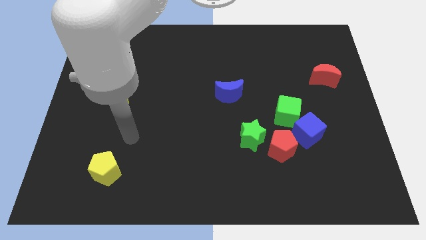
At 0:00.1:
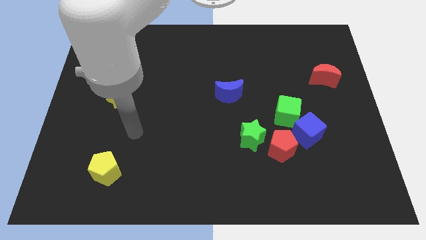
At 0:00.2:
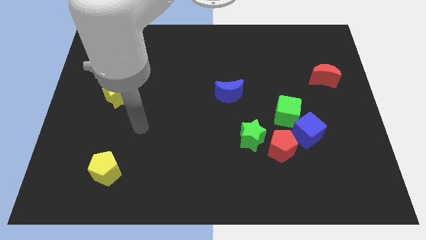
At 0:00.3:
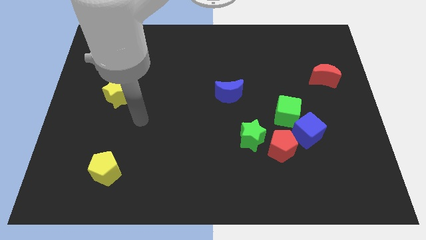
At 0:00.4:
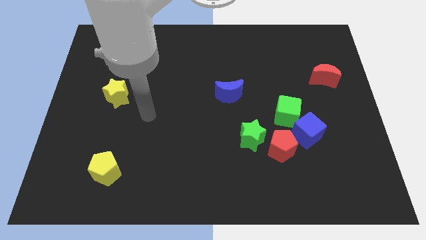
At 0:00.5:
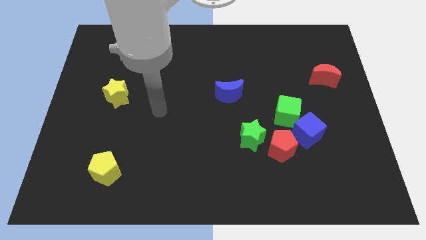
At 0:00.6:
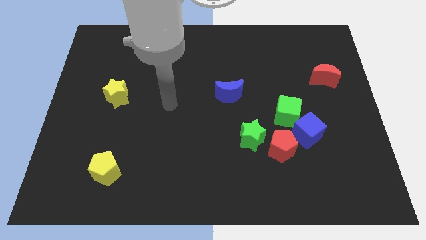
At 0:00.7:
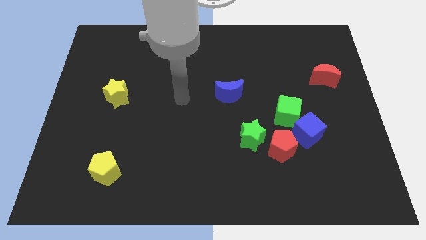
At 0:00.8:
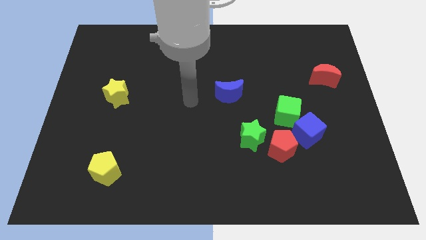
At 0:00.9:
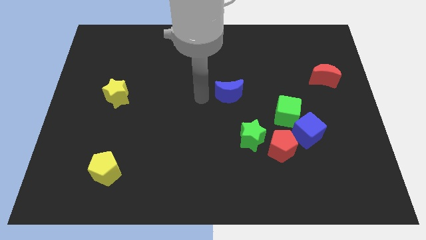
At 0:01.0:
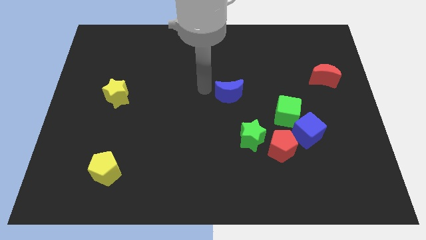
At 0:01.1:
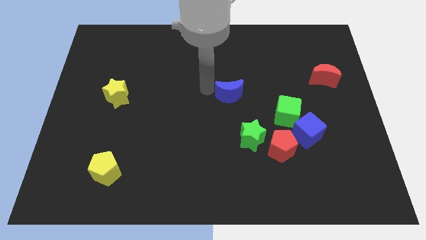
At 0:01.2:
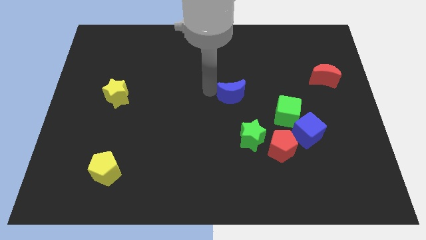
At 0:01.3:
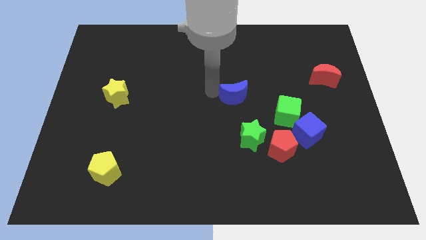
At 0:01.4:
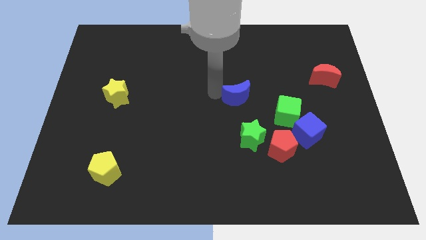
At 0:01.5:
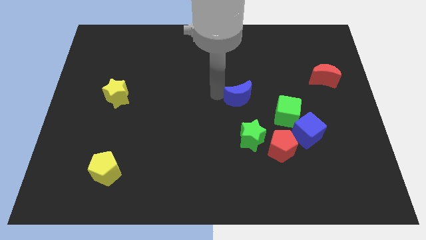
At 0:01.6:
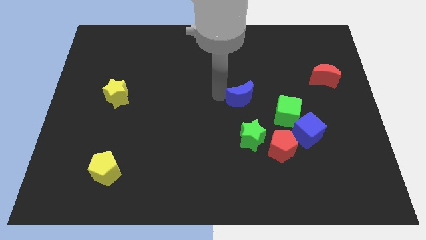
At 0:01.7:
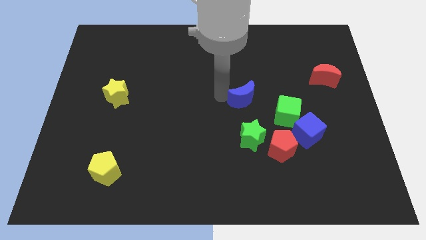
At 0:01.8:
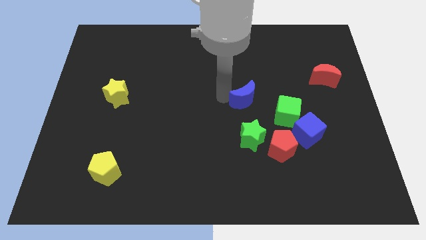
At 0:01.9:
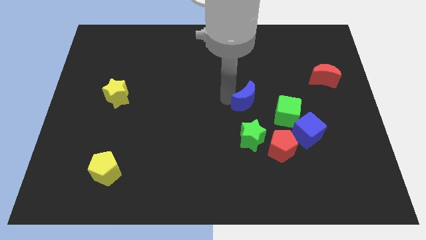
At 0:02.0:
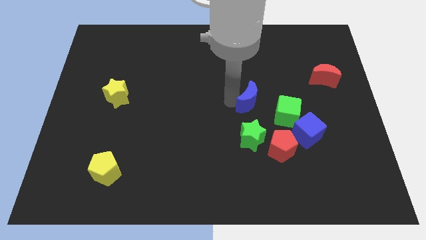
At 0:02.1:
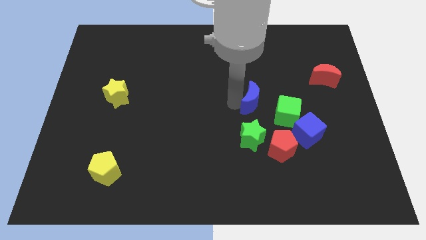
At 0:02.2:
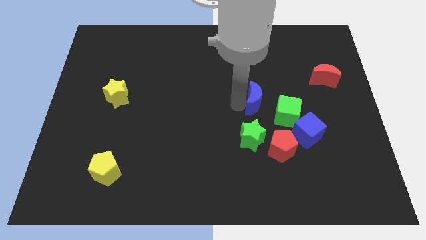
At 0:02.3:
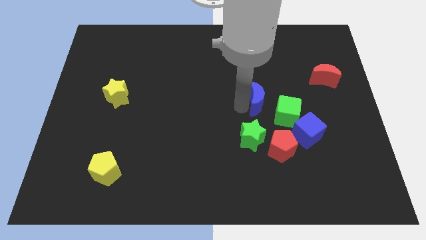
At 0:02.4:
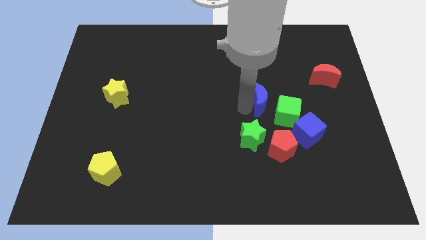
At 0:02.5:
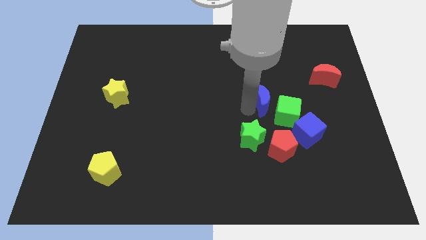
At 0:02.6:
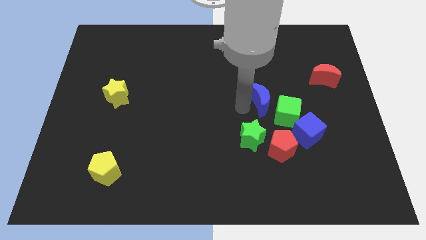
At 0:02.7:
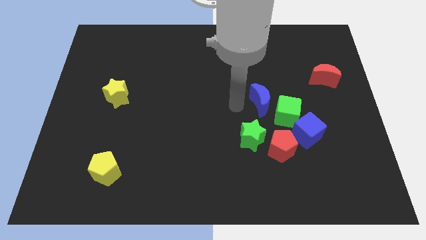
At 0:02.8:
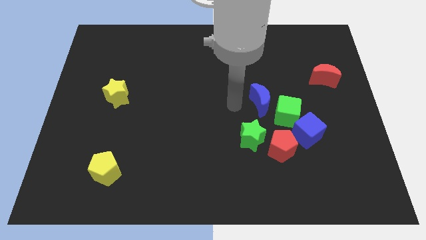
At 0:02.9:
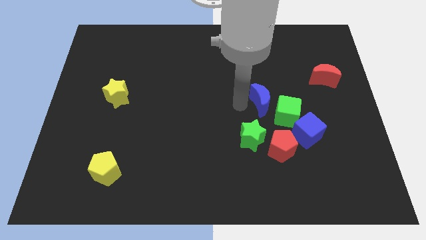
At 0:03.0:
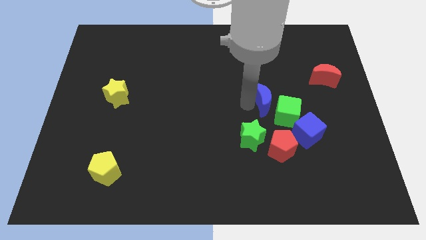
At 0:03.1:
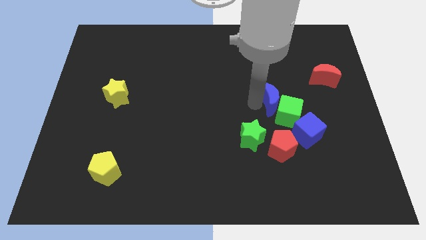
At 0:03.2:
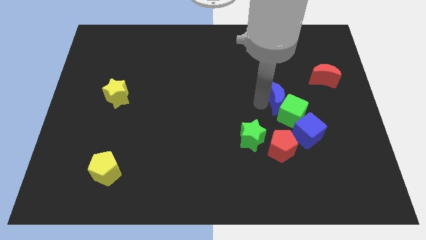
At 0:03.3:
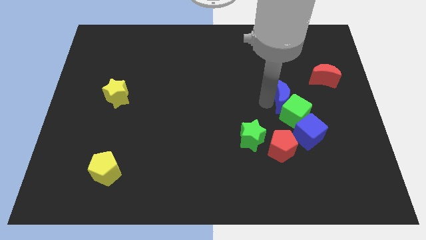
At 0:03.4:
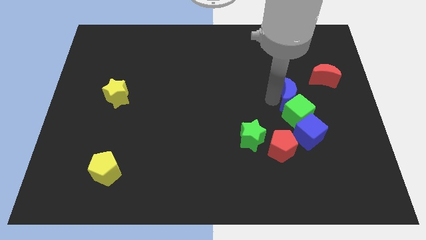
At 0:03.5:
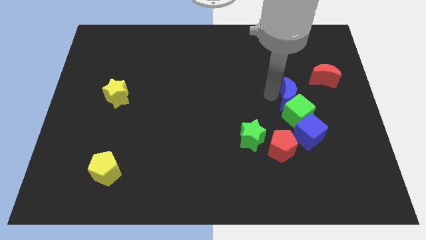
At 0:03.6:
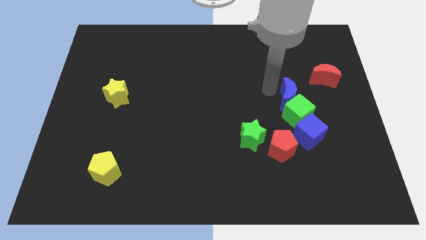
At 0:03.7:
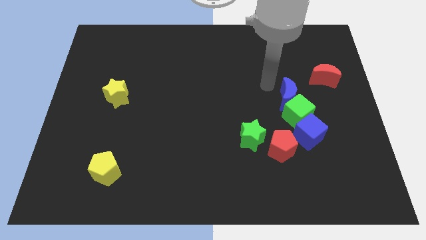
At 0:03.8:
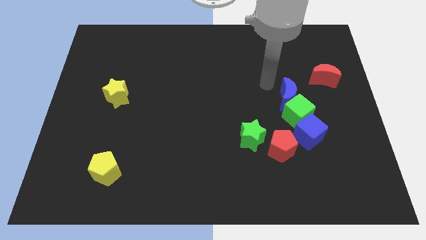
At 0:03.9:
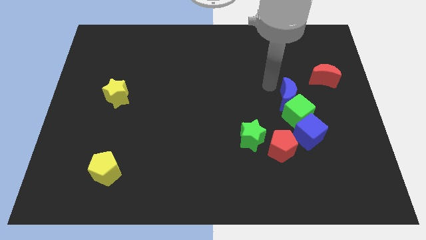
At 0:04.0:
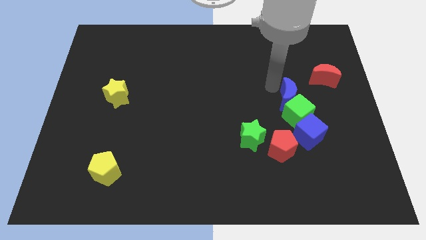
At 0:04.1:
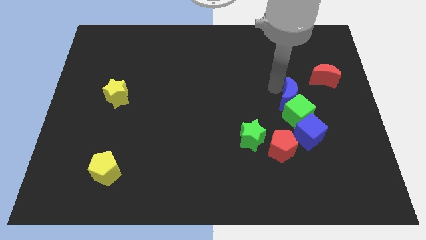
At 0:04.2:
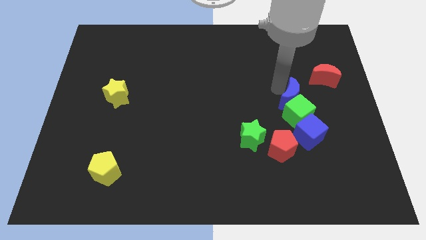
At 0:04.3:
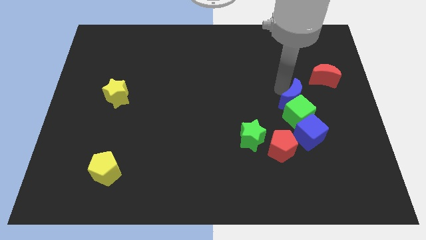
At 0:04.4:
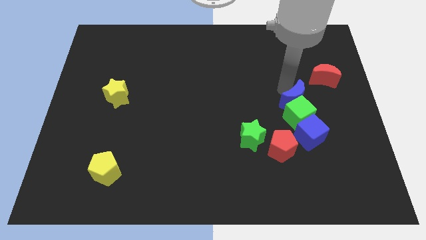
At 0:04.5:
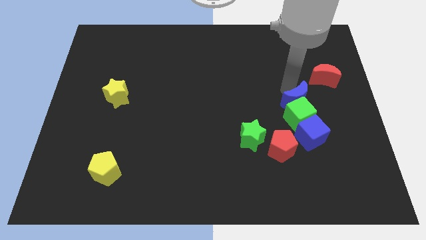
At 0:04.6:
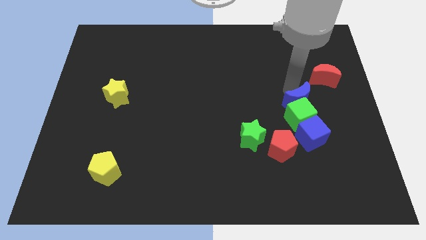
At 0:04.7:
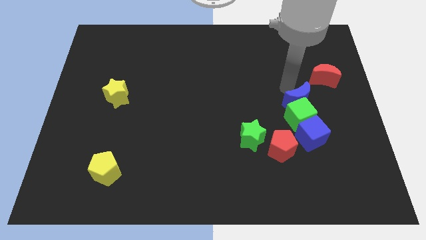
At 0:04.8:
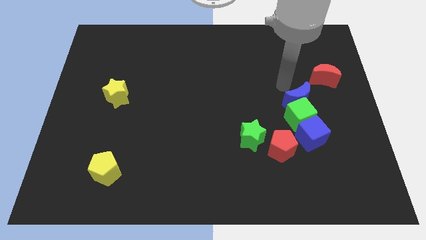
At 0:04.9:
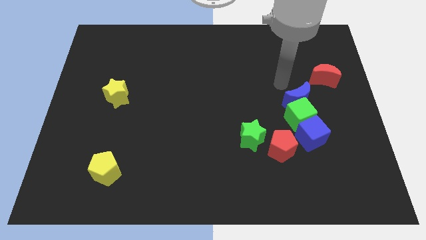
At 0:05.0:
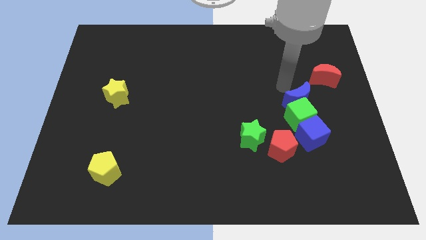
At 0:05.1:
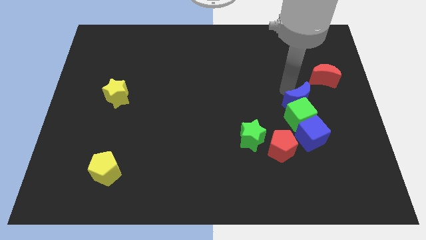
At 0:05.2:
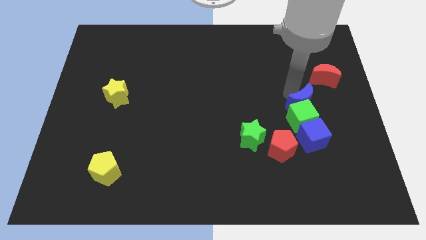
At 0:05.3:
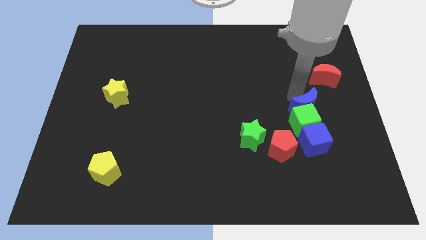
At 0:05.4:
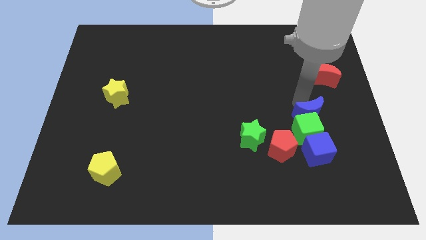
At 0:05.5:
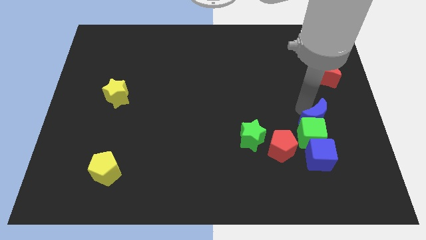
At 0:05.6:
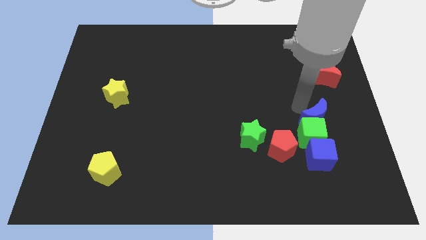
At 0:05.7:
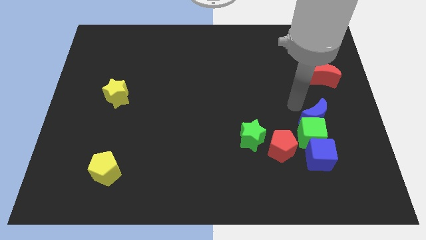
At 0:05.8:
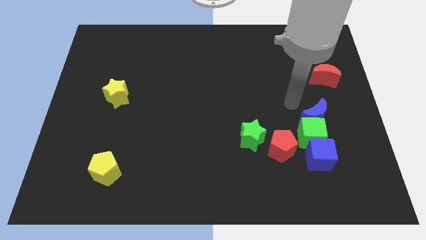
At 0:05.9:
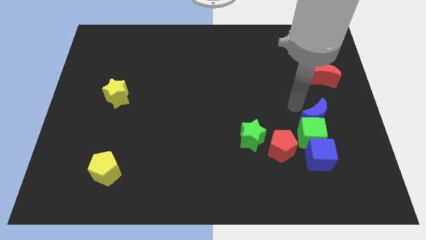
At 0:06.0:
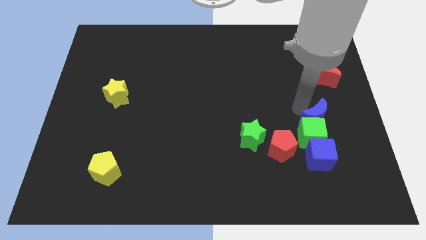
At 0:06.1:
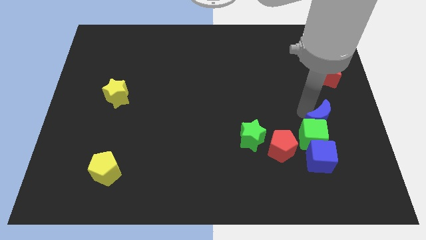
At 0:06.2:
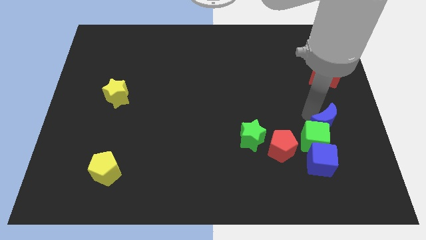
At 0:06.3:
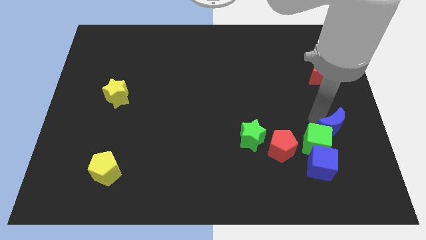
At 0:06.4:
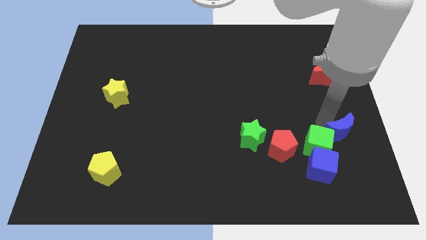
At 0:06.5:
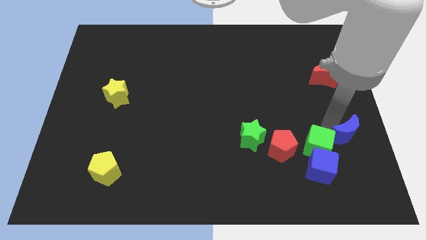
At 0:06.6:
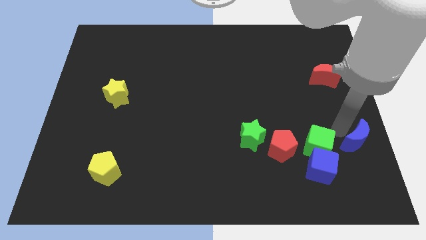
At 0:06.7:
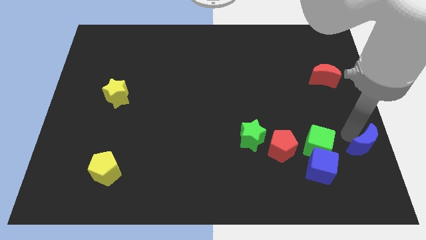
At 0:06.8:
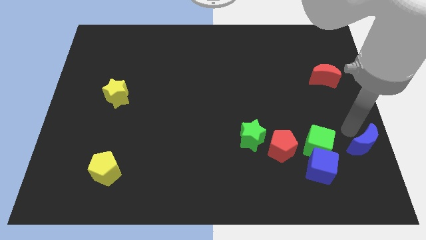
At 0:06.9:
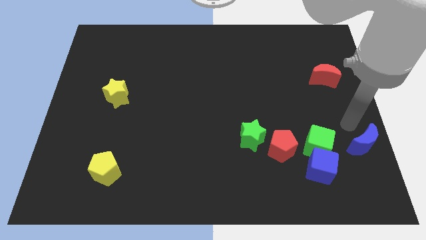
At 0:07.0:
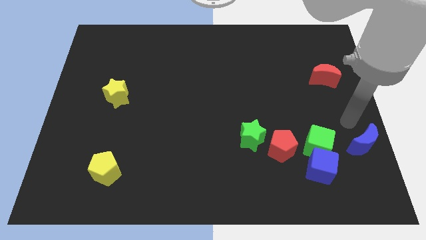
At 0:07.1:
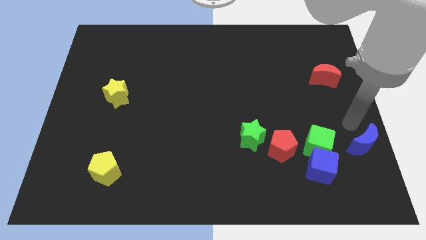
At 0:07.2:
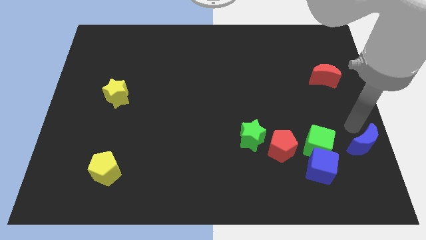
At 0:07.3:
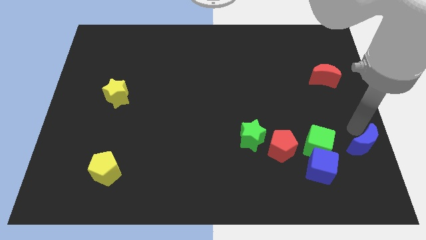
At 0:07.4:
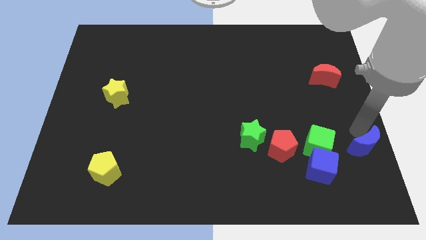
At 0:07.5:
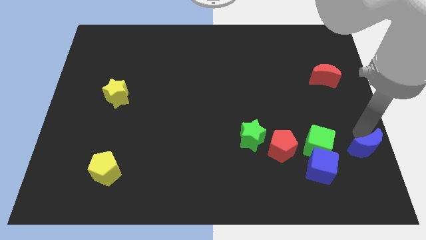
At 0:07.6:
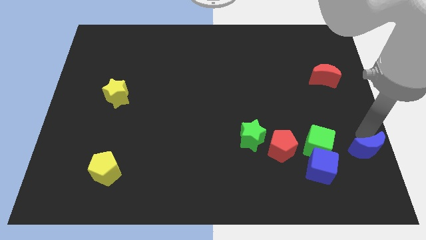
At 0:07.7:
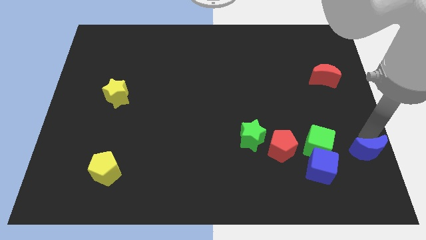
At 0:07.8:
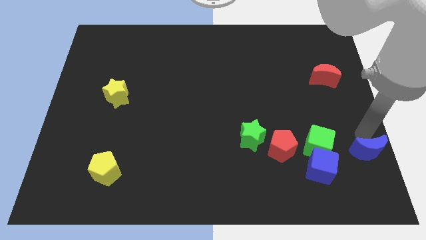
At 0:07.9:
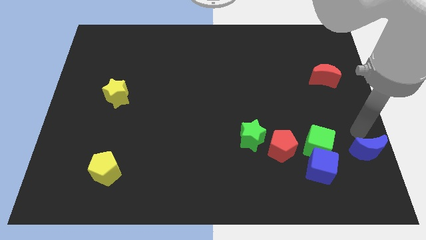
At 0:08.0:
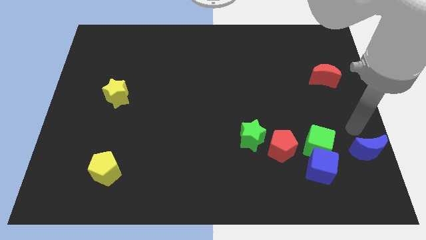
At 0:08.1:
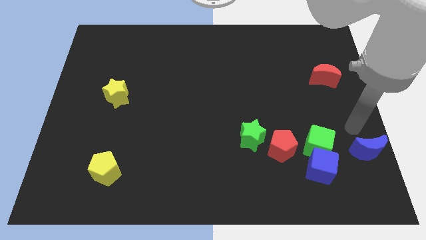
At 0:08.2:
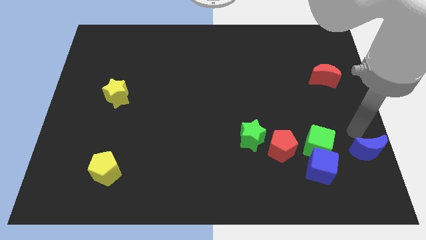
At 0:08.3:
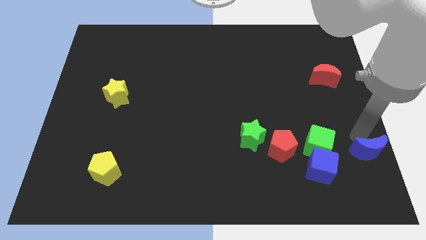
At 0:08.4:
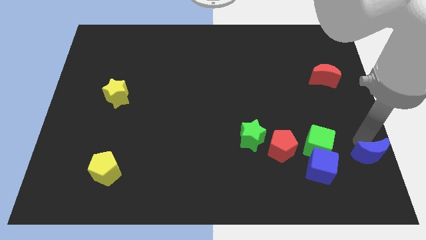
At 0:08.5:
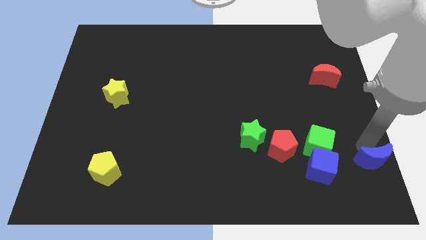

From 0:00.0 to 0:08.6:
push the blue moon to the lower right corner

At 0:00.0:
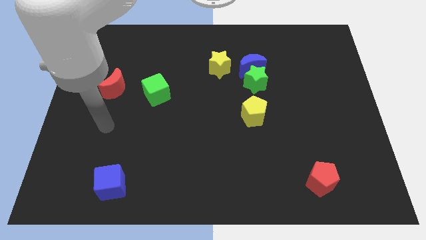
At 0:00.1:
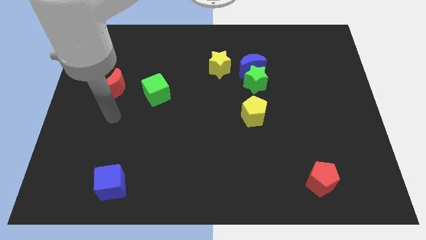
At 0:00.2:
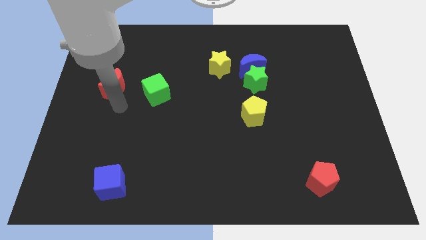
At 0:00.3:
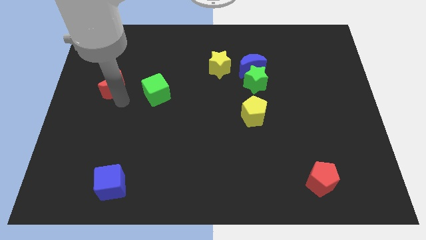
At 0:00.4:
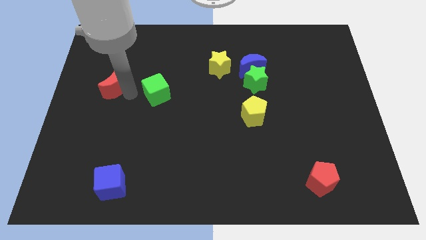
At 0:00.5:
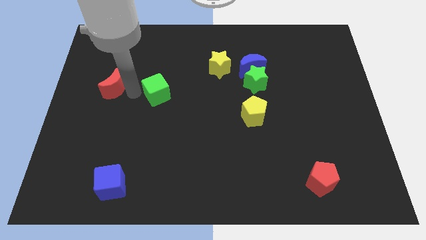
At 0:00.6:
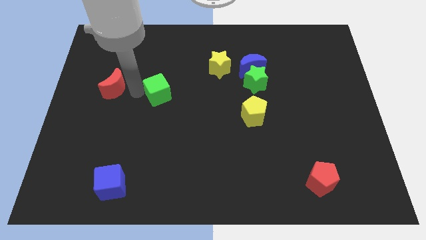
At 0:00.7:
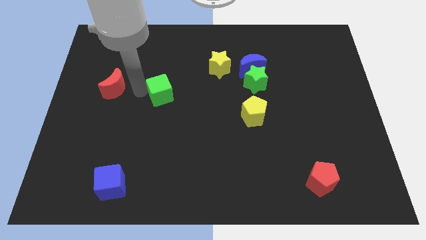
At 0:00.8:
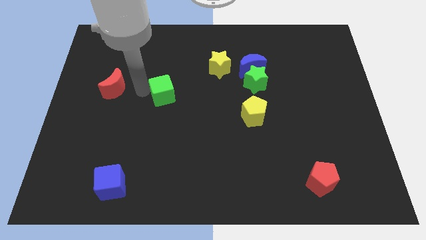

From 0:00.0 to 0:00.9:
put the green cube to the middle
